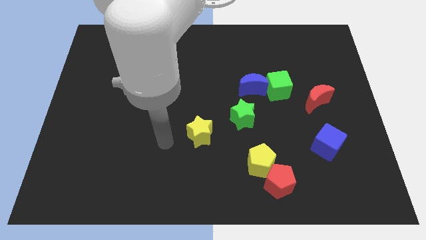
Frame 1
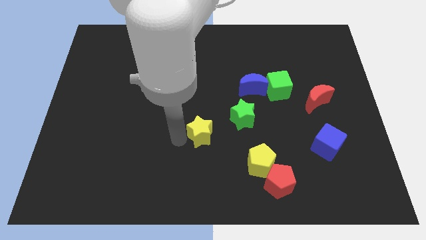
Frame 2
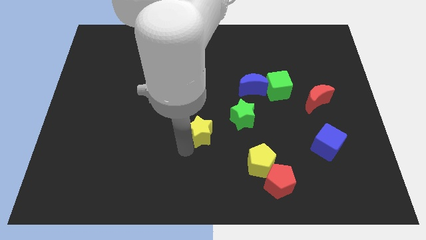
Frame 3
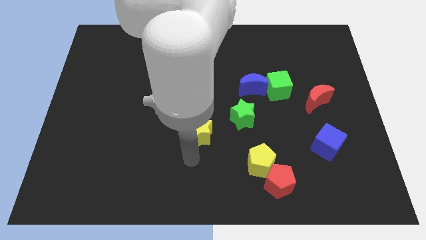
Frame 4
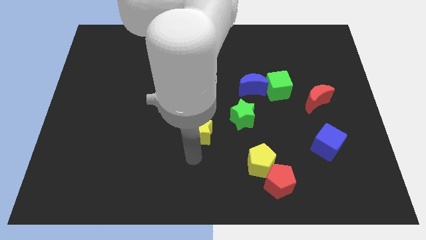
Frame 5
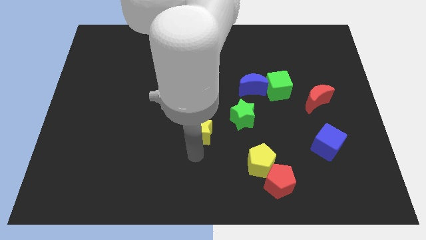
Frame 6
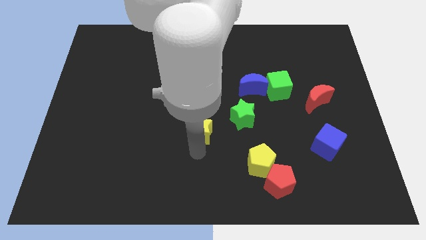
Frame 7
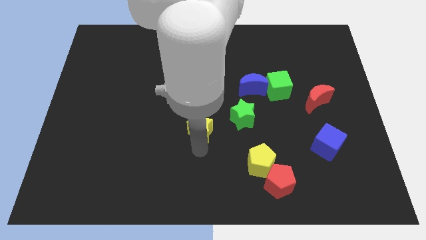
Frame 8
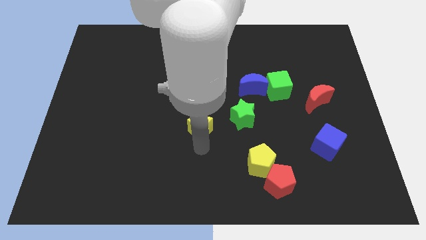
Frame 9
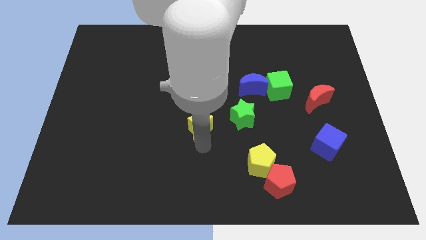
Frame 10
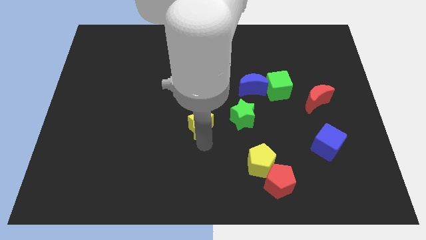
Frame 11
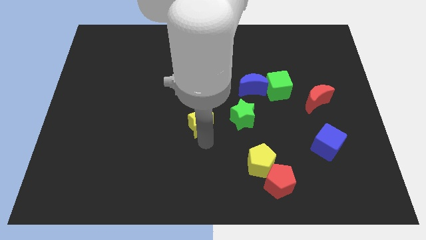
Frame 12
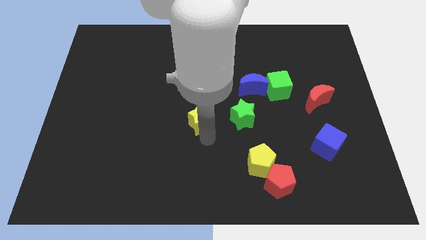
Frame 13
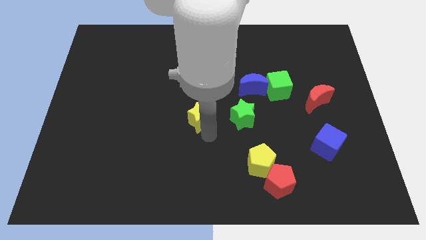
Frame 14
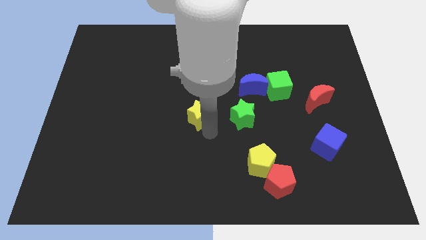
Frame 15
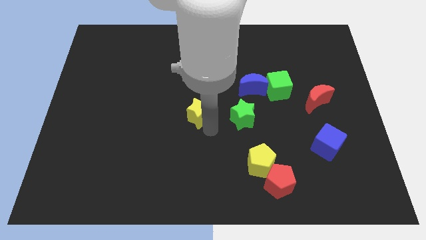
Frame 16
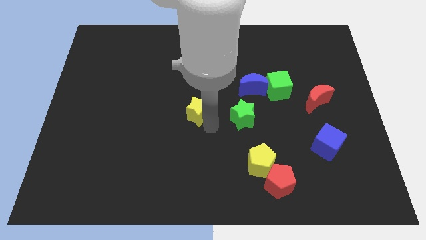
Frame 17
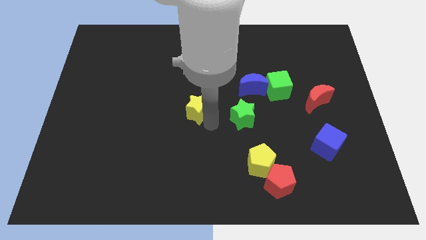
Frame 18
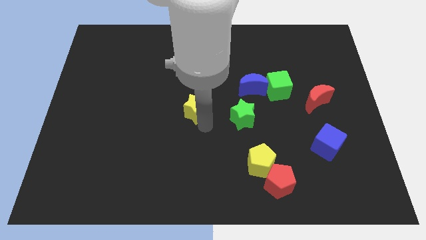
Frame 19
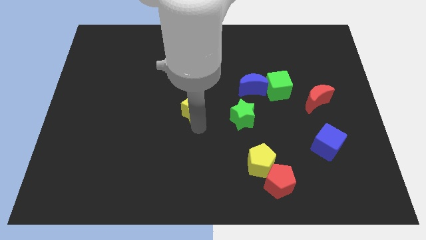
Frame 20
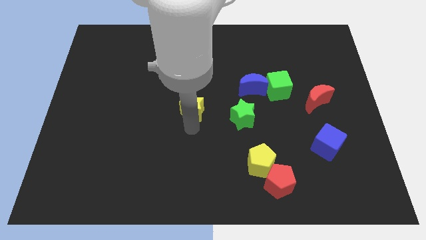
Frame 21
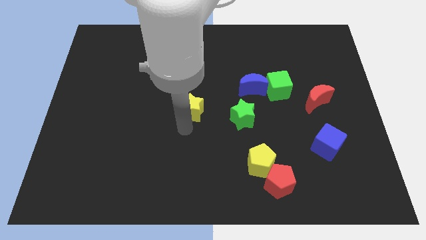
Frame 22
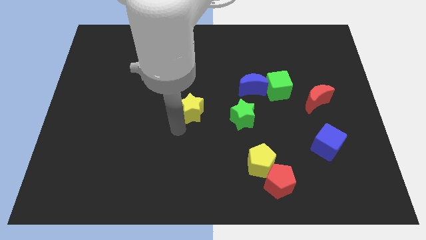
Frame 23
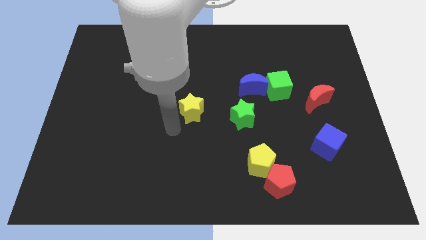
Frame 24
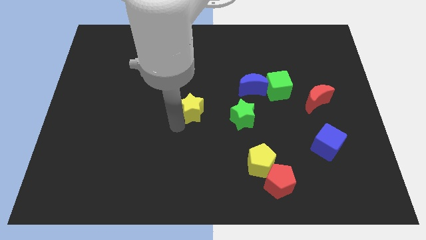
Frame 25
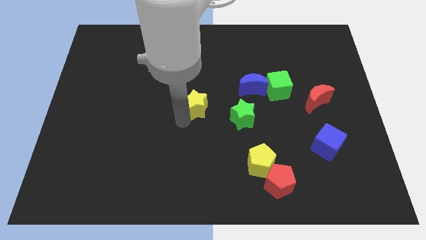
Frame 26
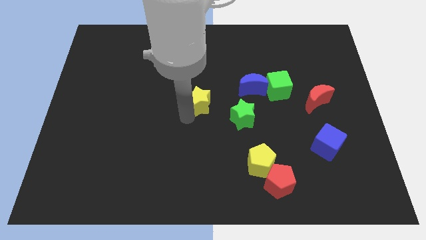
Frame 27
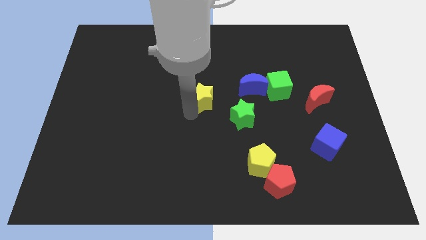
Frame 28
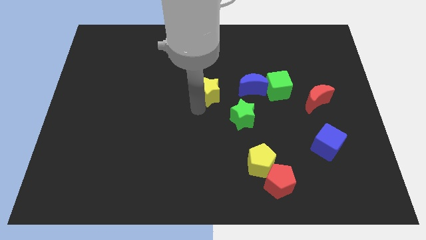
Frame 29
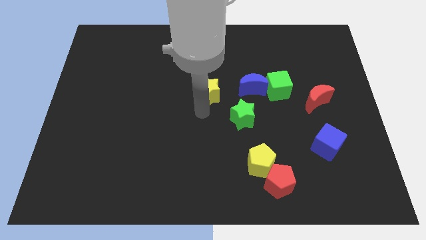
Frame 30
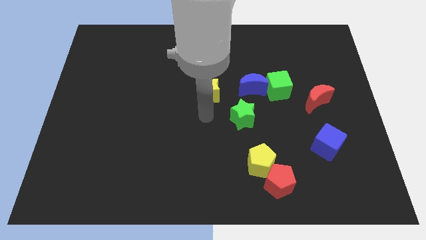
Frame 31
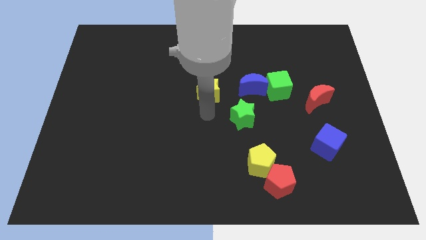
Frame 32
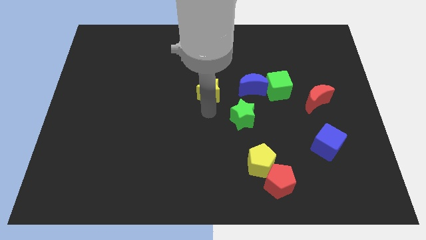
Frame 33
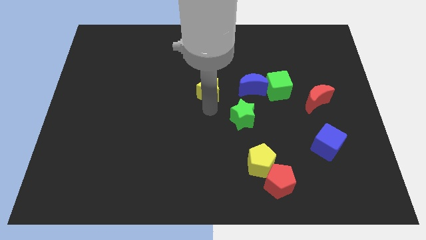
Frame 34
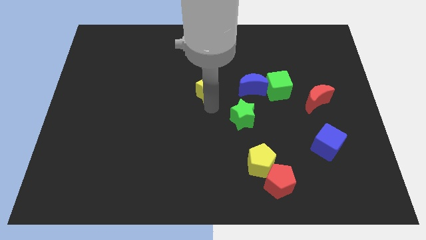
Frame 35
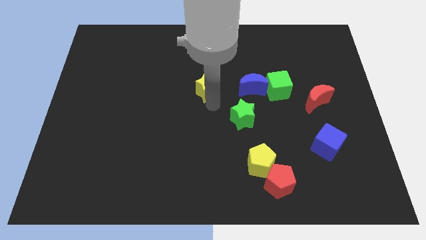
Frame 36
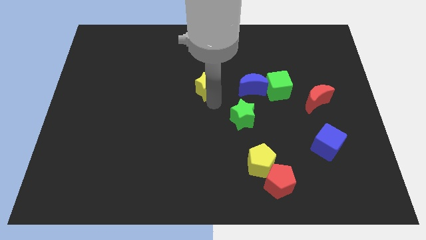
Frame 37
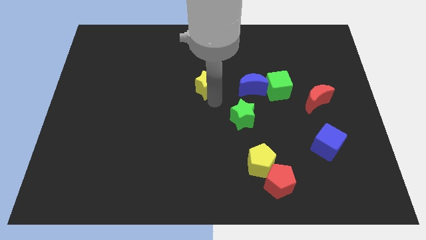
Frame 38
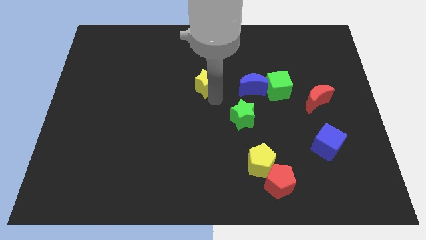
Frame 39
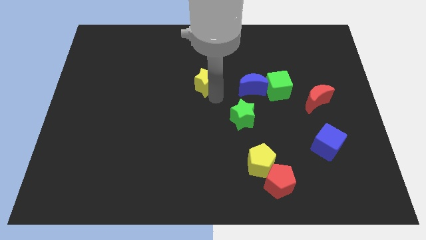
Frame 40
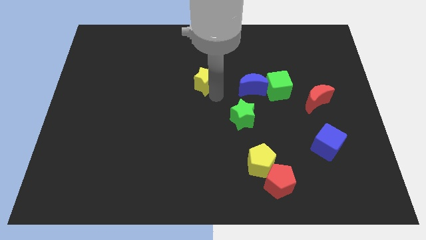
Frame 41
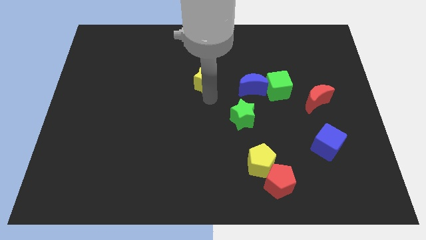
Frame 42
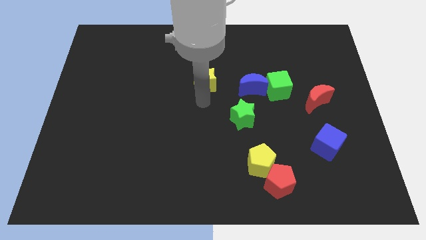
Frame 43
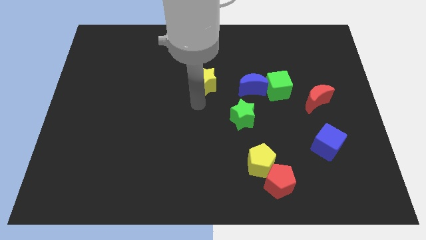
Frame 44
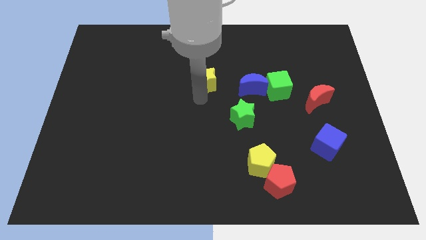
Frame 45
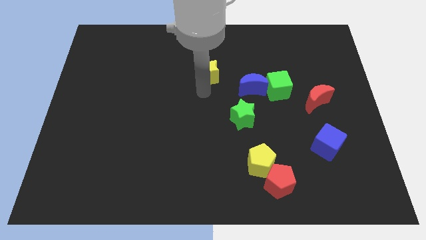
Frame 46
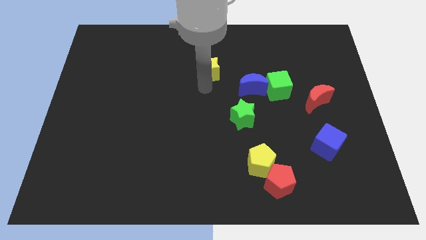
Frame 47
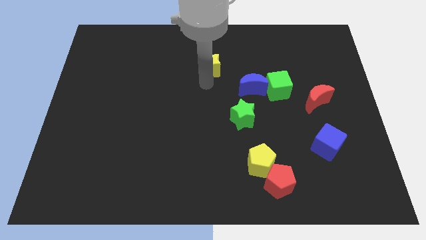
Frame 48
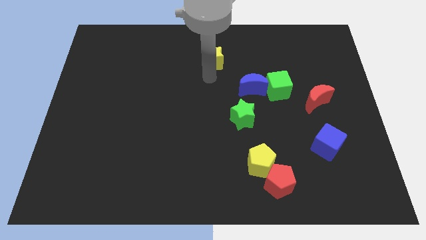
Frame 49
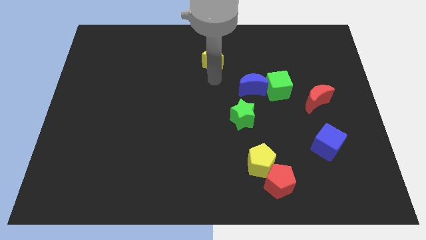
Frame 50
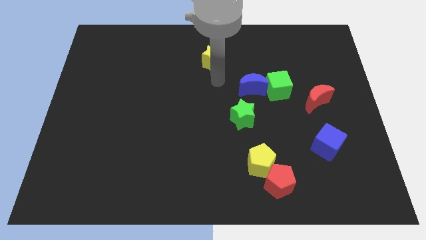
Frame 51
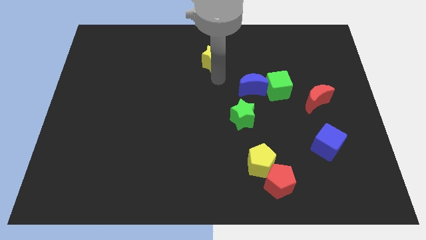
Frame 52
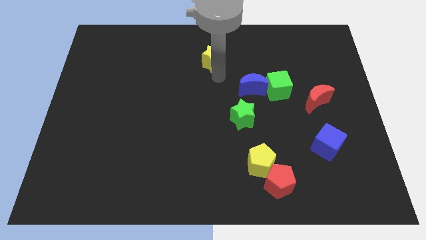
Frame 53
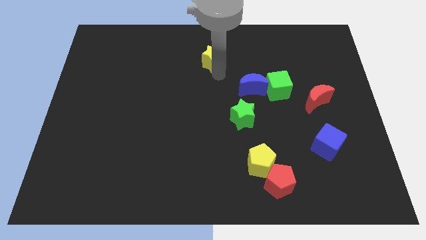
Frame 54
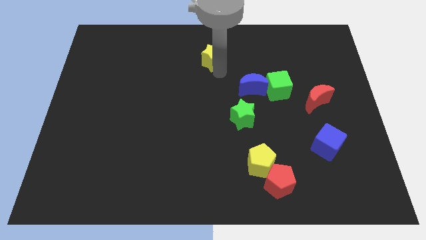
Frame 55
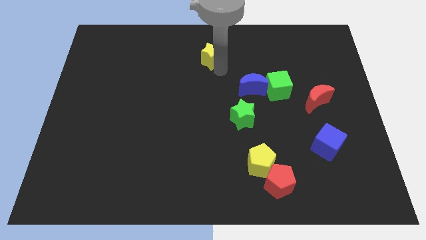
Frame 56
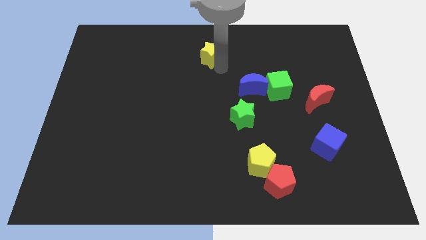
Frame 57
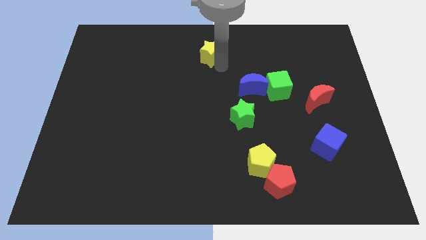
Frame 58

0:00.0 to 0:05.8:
move the yellow star to the towards your base
